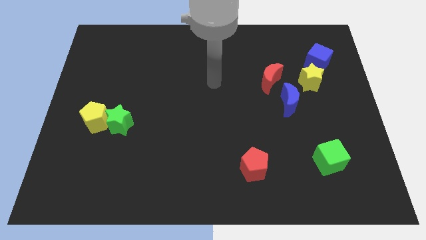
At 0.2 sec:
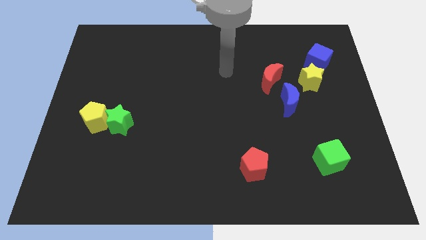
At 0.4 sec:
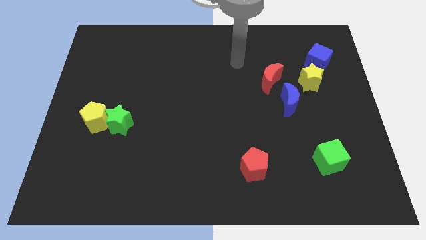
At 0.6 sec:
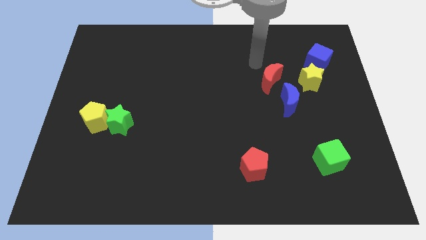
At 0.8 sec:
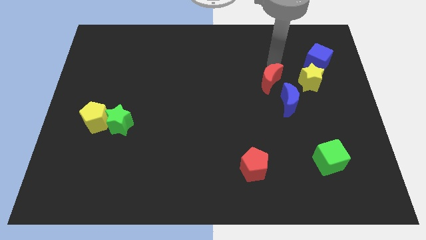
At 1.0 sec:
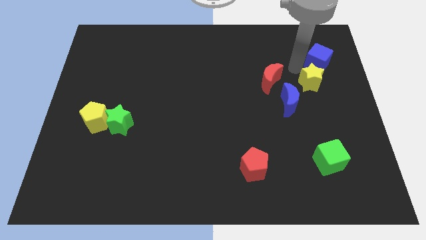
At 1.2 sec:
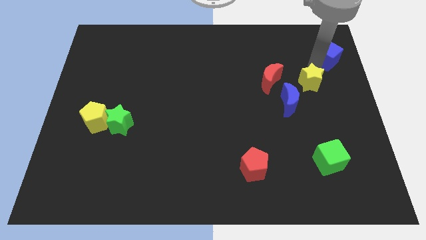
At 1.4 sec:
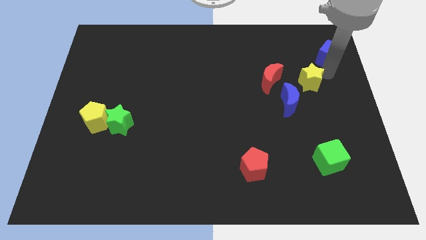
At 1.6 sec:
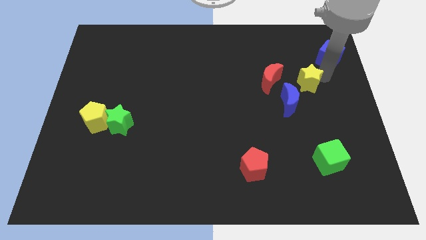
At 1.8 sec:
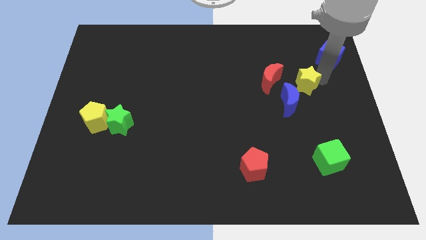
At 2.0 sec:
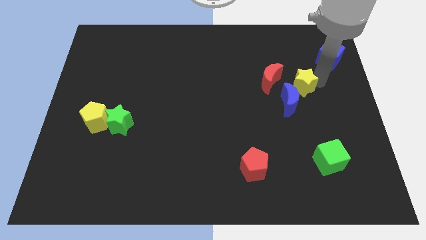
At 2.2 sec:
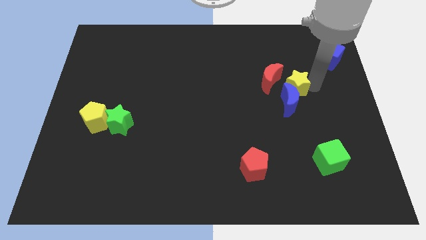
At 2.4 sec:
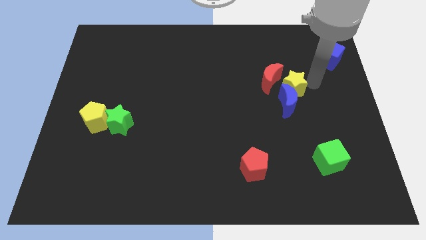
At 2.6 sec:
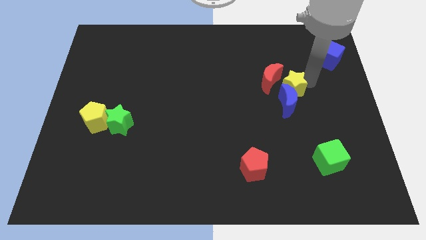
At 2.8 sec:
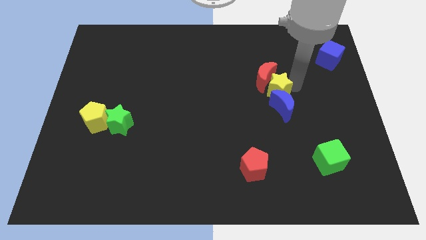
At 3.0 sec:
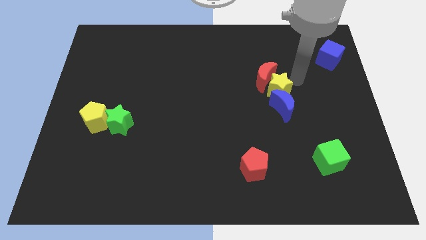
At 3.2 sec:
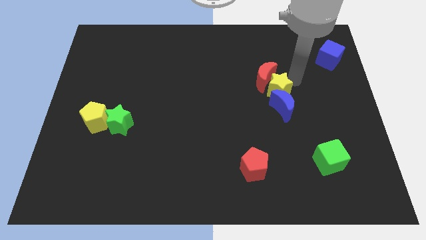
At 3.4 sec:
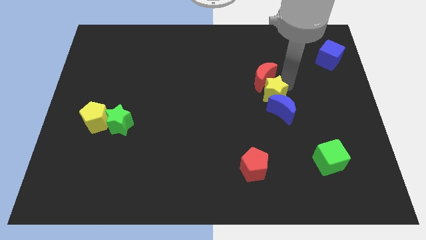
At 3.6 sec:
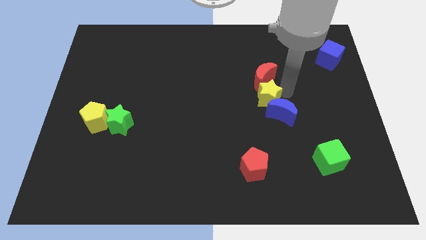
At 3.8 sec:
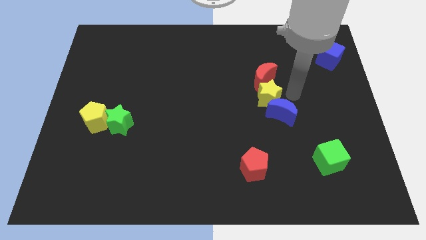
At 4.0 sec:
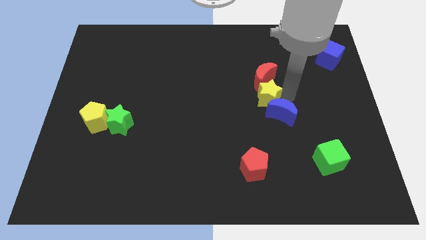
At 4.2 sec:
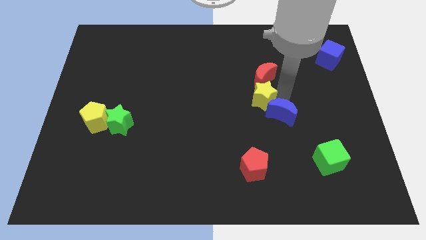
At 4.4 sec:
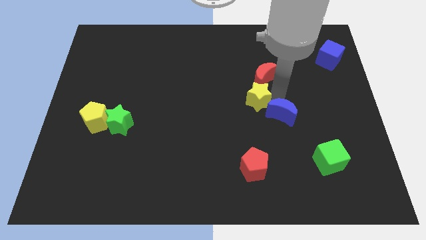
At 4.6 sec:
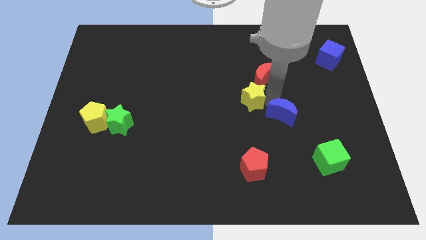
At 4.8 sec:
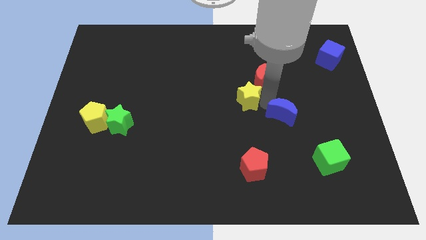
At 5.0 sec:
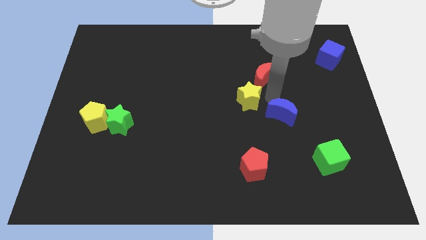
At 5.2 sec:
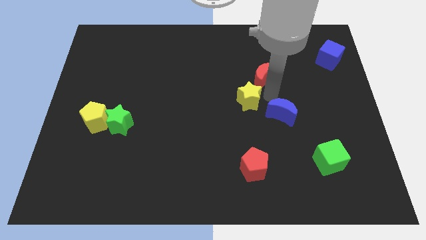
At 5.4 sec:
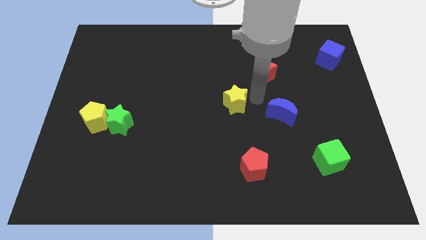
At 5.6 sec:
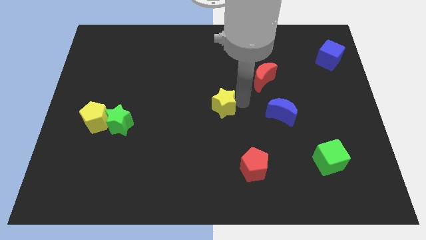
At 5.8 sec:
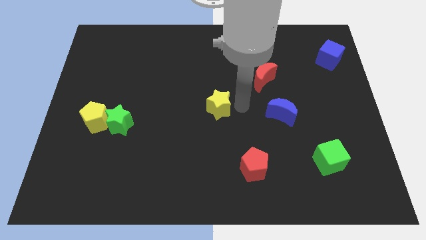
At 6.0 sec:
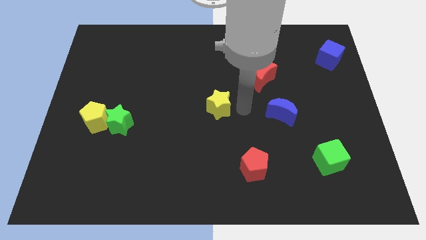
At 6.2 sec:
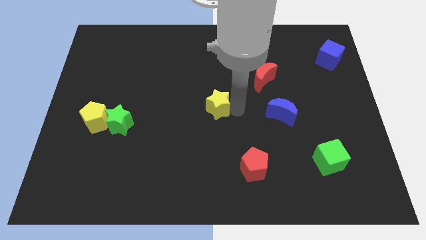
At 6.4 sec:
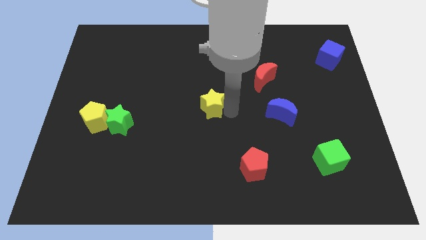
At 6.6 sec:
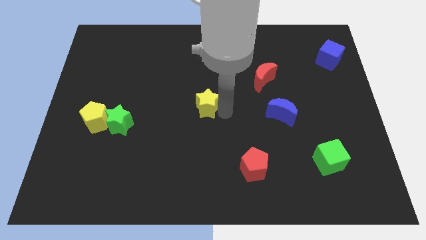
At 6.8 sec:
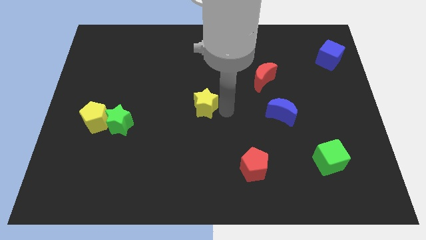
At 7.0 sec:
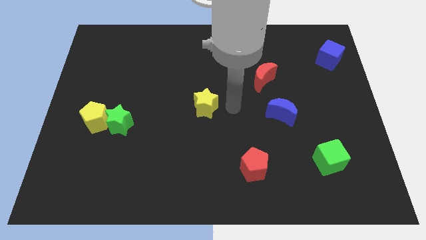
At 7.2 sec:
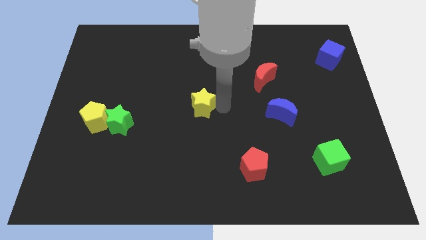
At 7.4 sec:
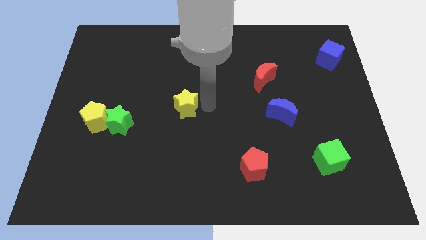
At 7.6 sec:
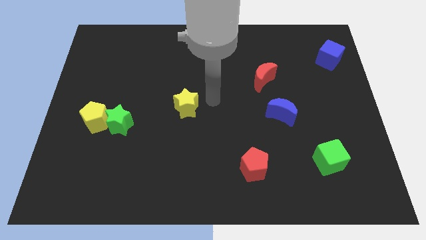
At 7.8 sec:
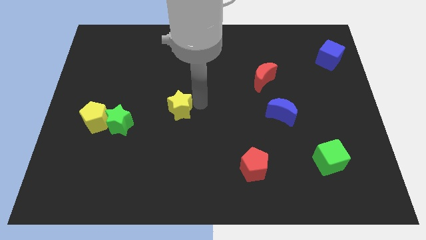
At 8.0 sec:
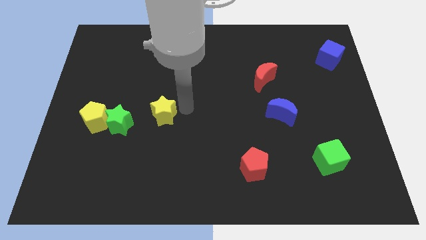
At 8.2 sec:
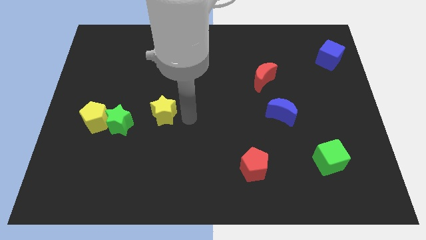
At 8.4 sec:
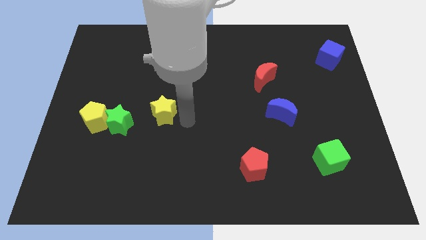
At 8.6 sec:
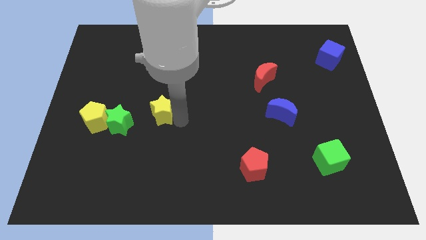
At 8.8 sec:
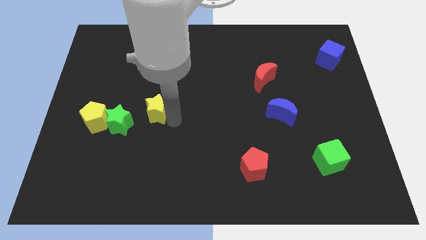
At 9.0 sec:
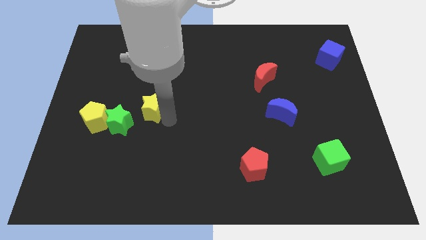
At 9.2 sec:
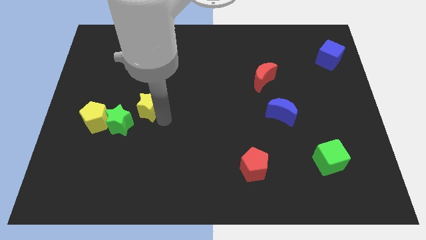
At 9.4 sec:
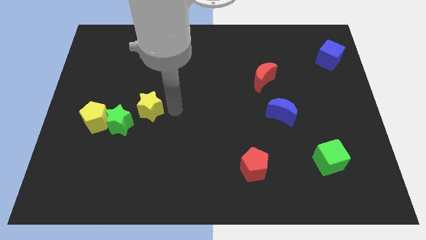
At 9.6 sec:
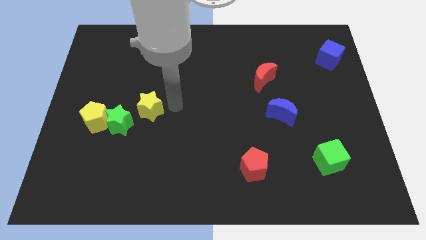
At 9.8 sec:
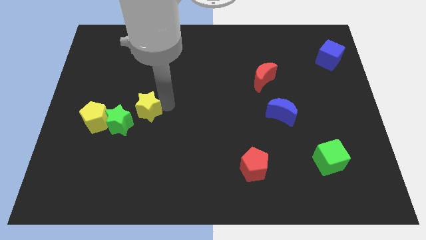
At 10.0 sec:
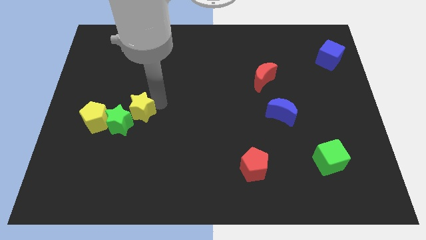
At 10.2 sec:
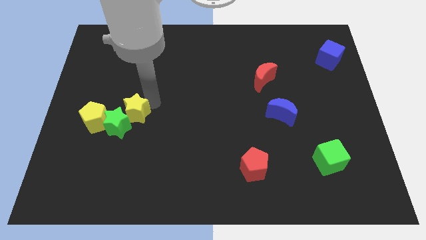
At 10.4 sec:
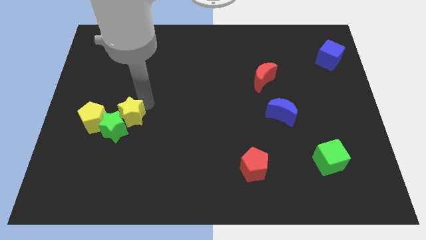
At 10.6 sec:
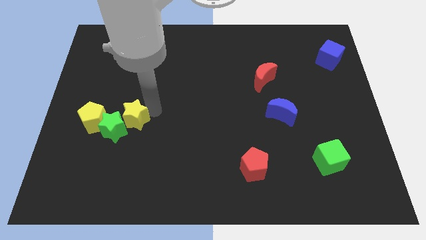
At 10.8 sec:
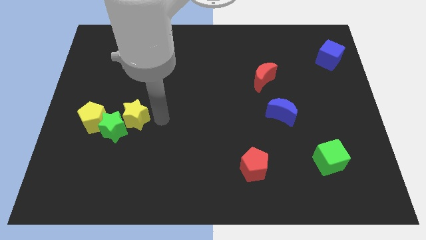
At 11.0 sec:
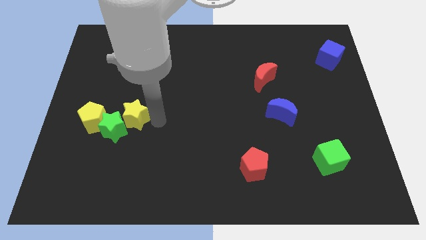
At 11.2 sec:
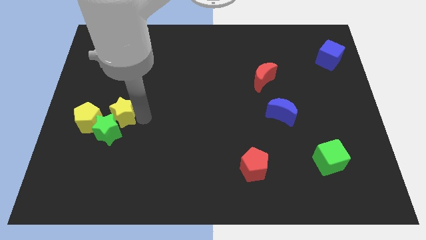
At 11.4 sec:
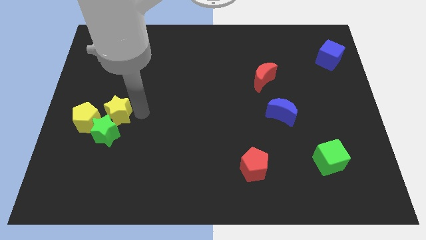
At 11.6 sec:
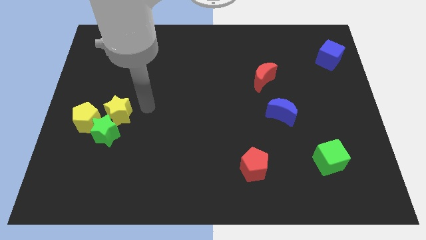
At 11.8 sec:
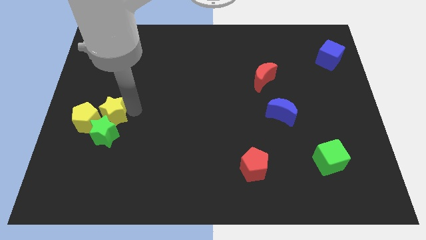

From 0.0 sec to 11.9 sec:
push the yellow star to the yellow pentagon

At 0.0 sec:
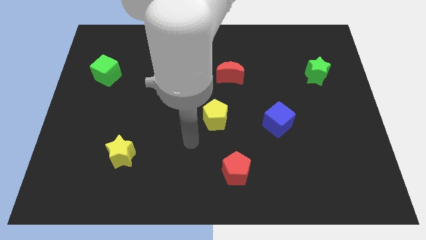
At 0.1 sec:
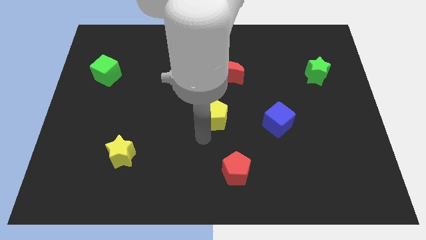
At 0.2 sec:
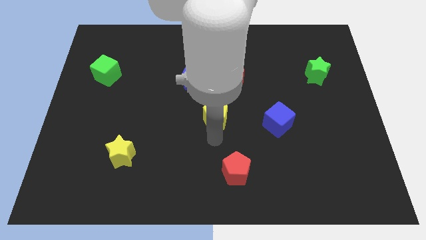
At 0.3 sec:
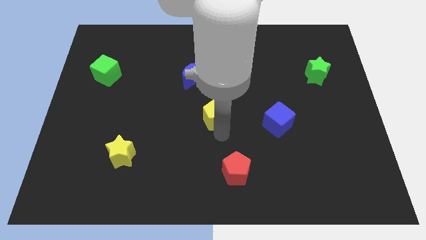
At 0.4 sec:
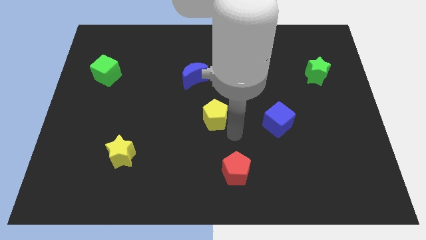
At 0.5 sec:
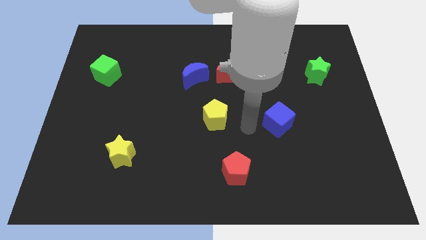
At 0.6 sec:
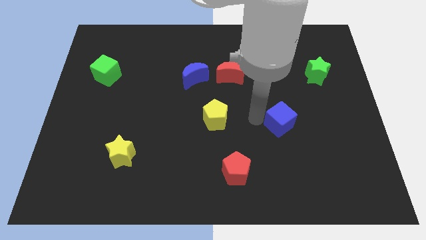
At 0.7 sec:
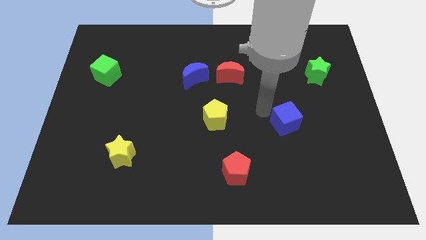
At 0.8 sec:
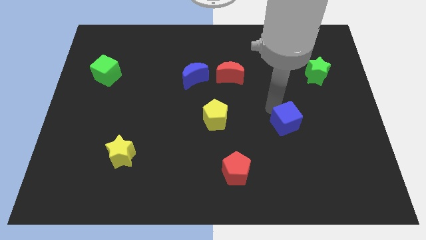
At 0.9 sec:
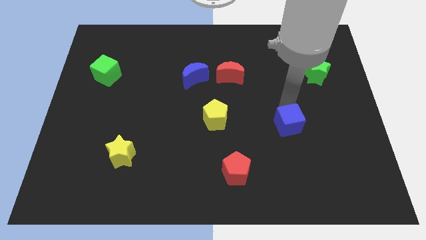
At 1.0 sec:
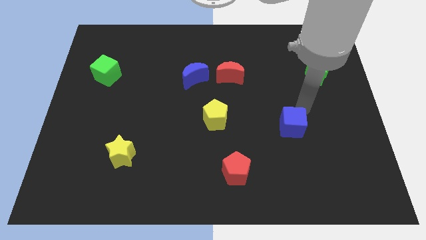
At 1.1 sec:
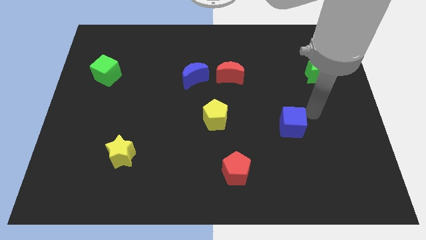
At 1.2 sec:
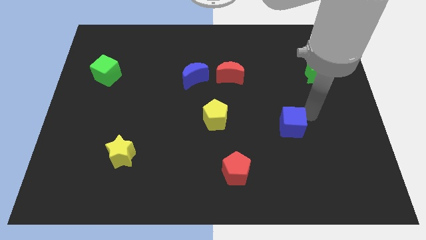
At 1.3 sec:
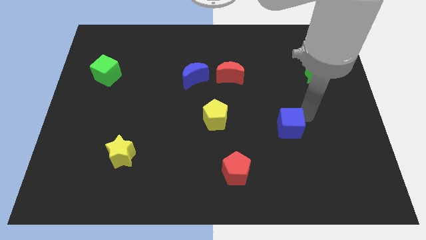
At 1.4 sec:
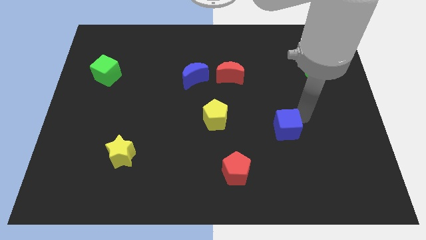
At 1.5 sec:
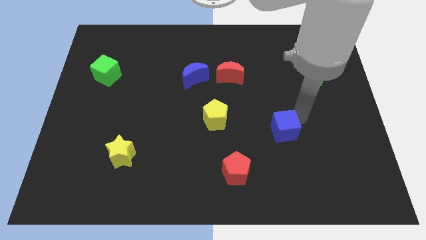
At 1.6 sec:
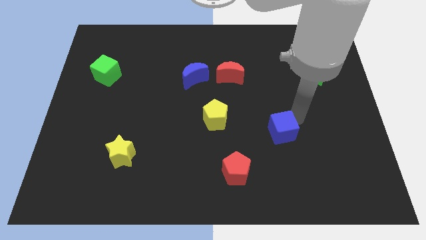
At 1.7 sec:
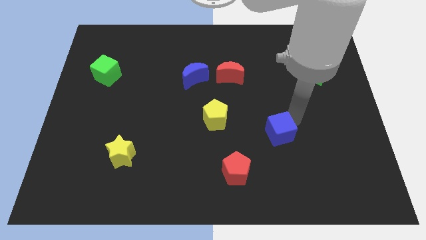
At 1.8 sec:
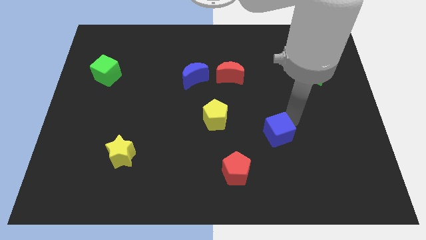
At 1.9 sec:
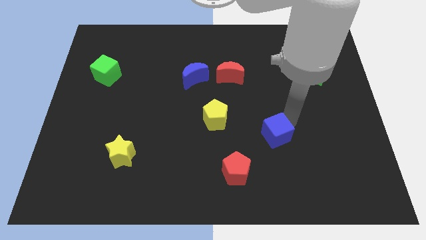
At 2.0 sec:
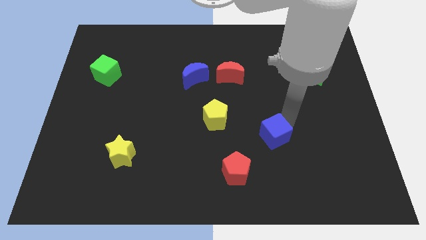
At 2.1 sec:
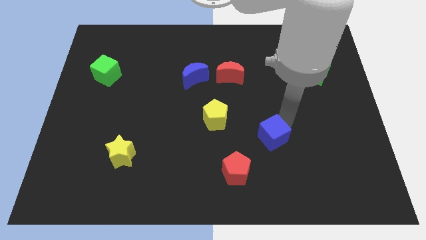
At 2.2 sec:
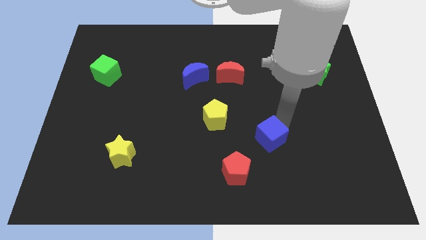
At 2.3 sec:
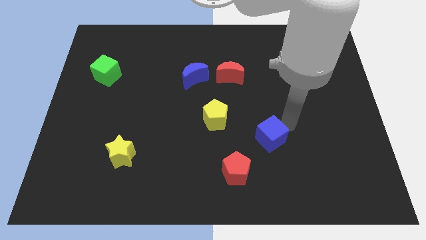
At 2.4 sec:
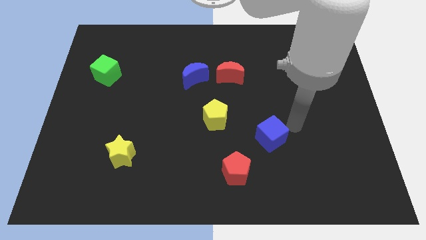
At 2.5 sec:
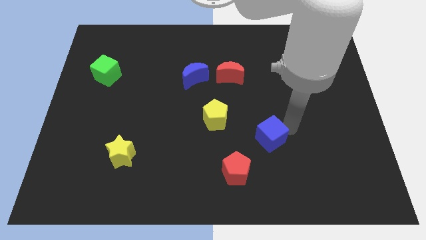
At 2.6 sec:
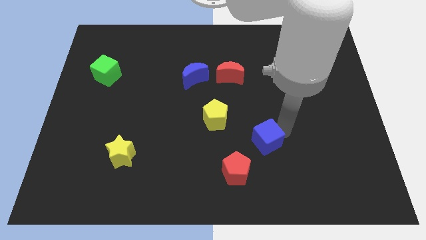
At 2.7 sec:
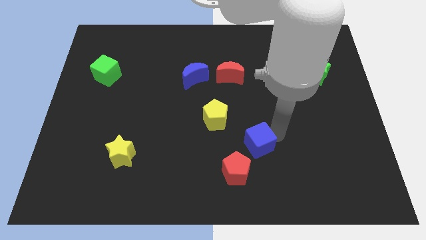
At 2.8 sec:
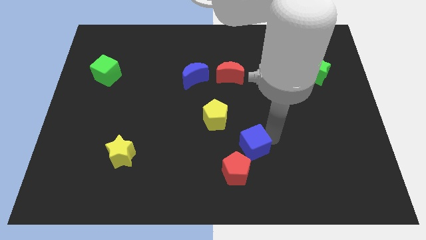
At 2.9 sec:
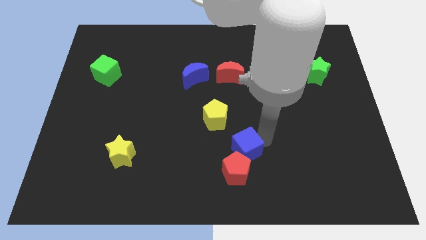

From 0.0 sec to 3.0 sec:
move the blue cube towards the red pentagon
